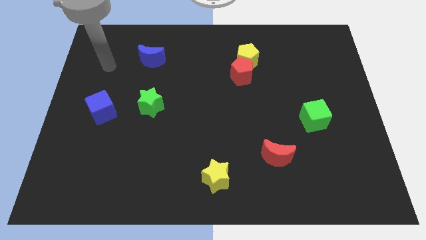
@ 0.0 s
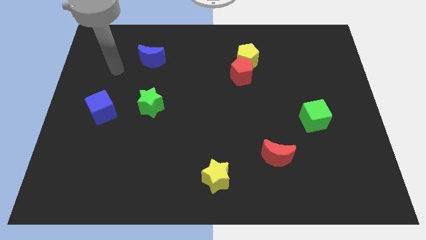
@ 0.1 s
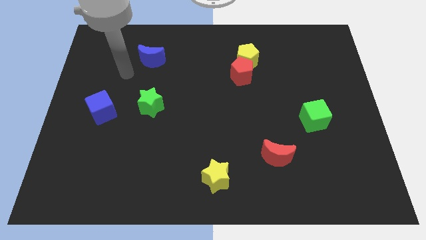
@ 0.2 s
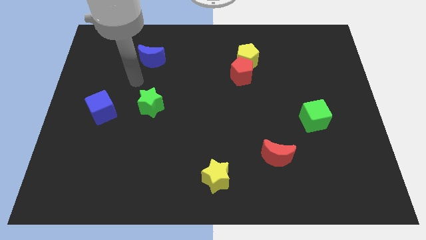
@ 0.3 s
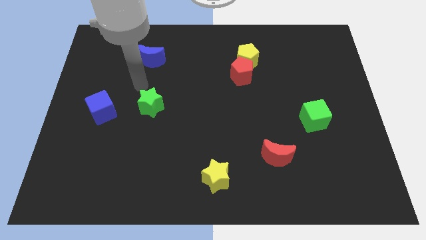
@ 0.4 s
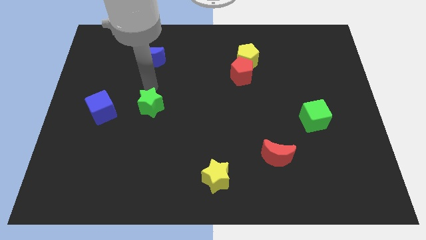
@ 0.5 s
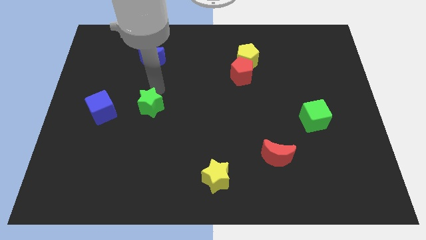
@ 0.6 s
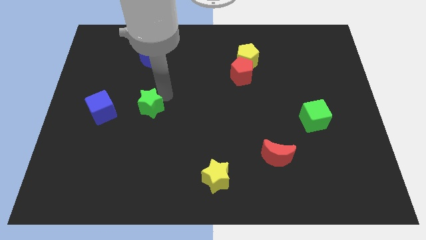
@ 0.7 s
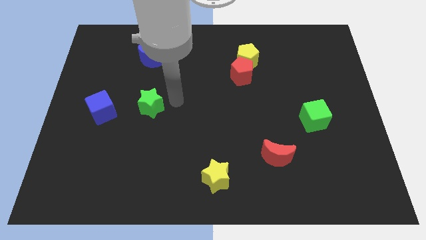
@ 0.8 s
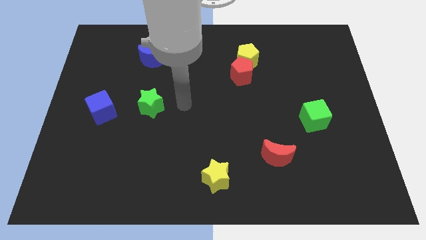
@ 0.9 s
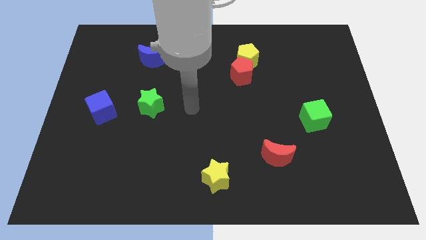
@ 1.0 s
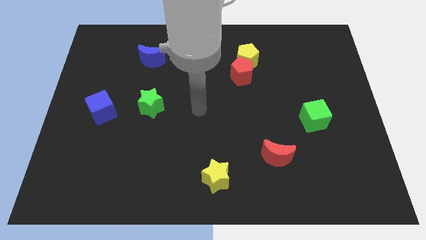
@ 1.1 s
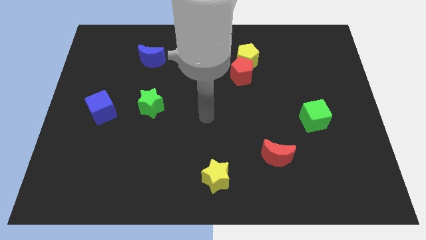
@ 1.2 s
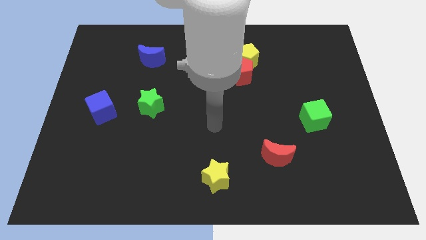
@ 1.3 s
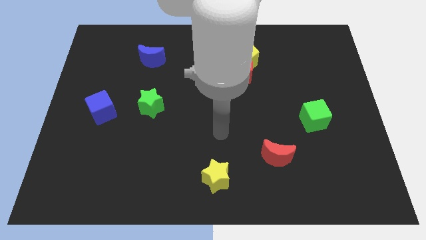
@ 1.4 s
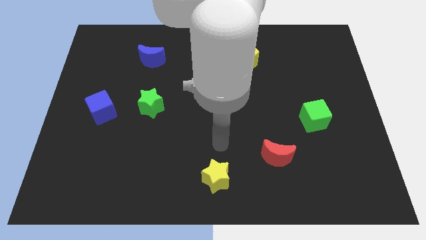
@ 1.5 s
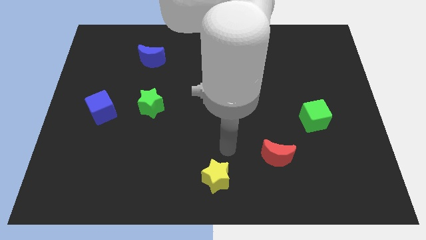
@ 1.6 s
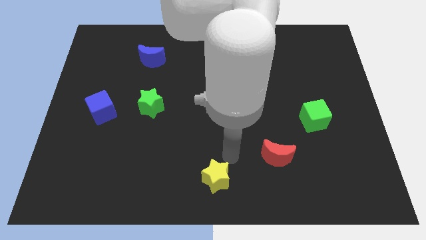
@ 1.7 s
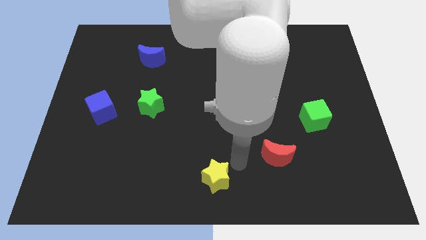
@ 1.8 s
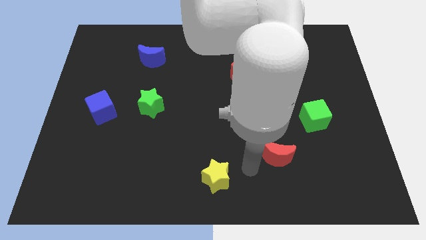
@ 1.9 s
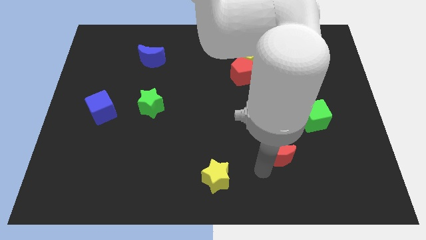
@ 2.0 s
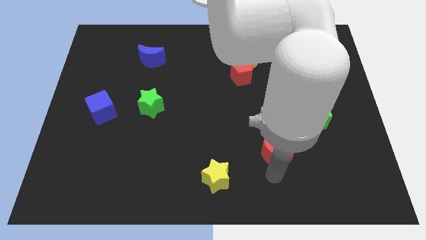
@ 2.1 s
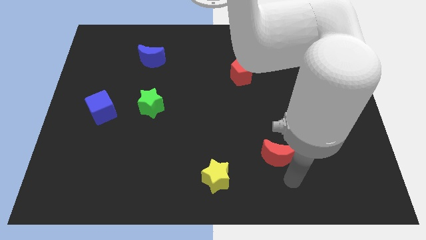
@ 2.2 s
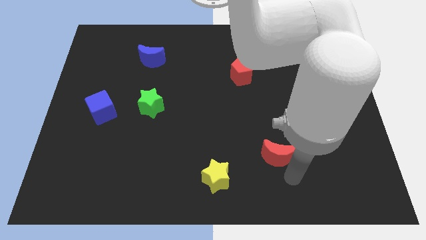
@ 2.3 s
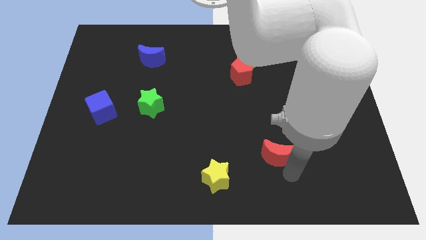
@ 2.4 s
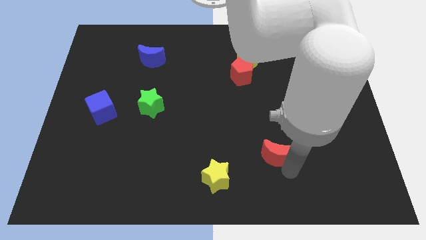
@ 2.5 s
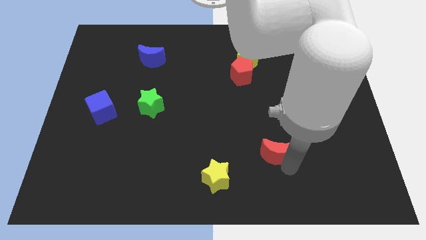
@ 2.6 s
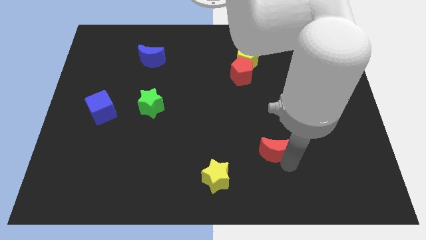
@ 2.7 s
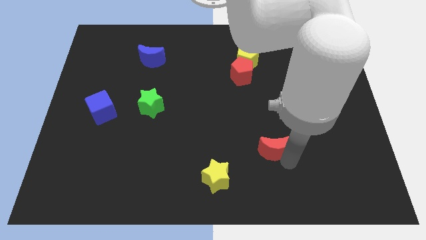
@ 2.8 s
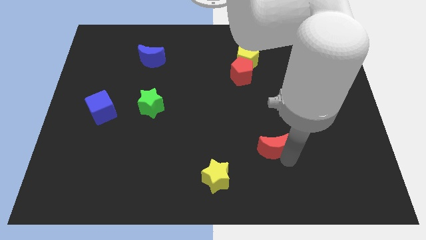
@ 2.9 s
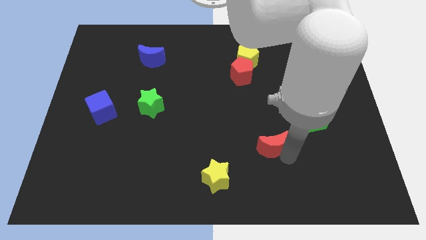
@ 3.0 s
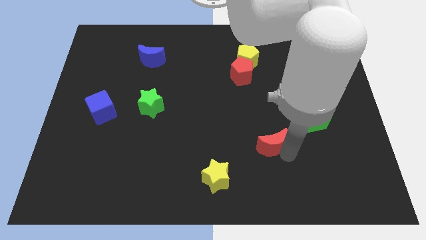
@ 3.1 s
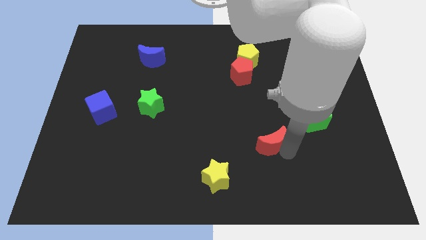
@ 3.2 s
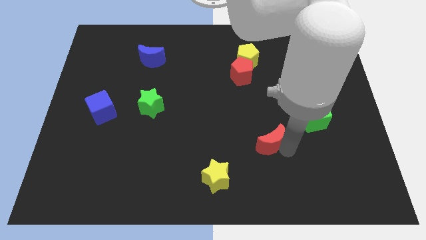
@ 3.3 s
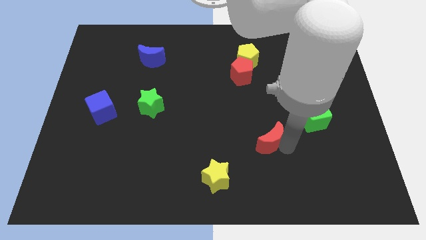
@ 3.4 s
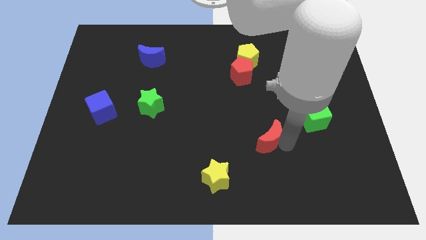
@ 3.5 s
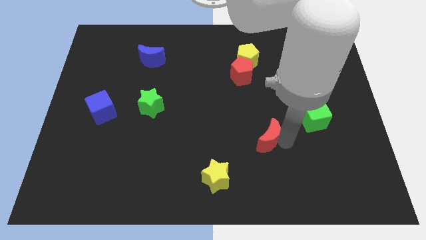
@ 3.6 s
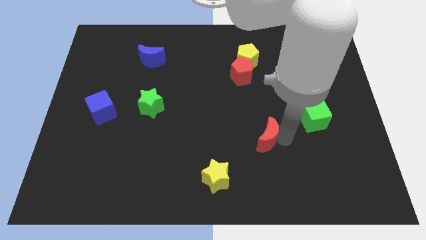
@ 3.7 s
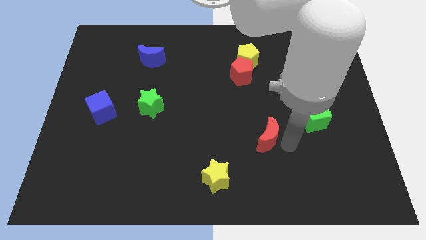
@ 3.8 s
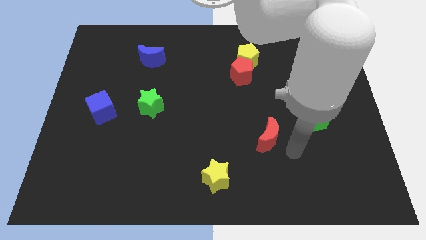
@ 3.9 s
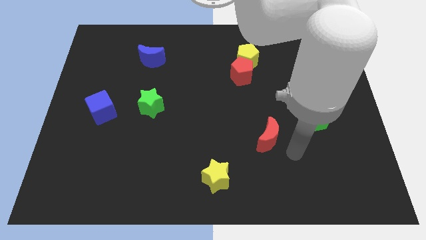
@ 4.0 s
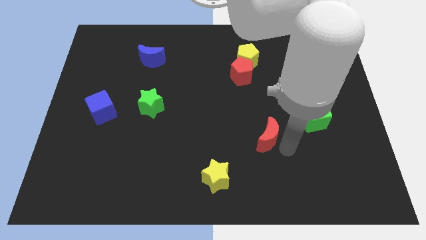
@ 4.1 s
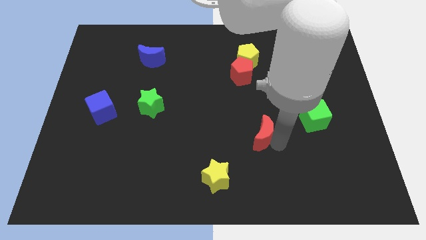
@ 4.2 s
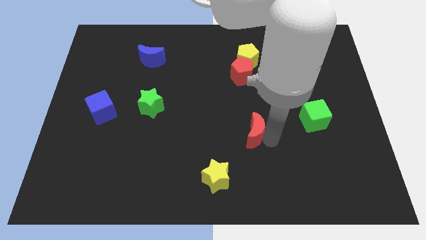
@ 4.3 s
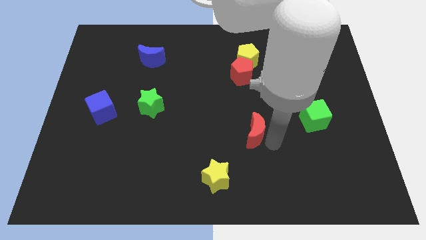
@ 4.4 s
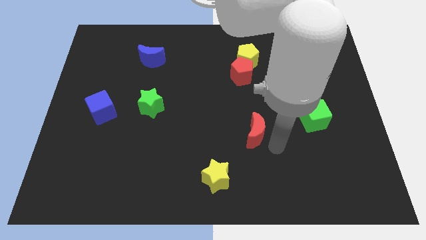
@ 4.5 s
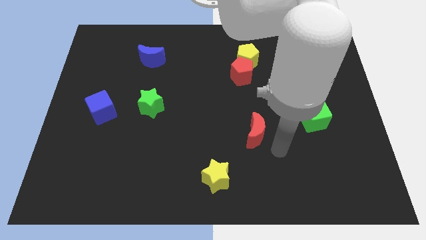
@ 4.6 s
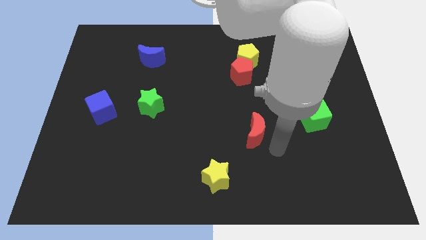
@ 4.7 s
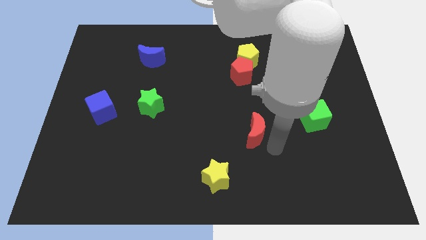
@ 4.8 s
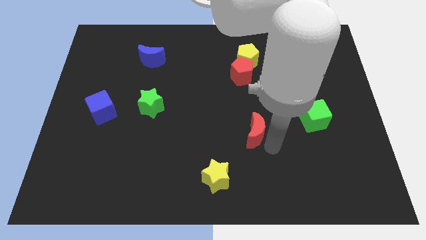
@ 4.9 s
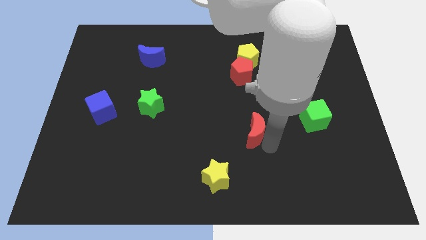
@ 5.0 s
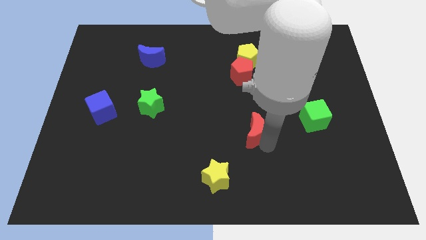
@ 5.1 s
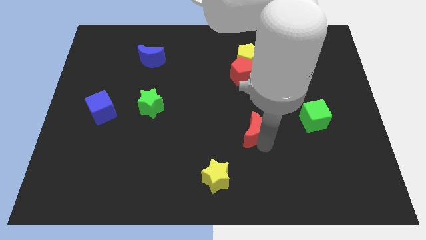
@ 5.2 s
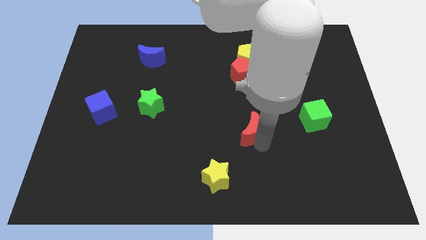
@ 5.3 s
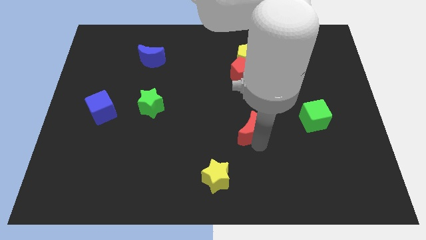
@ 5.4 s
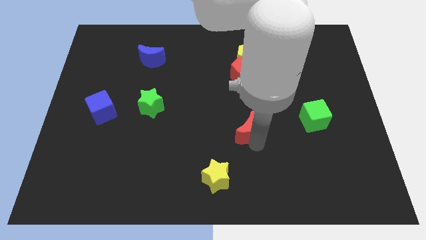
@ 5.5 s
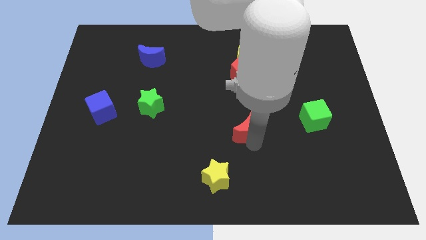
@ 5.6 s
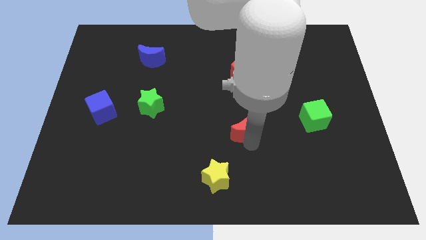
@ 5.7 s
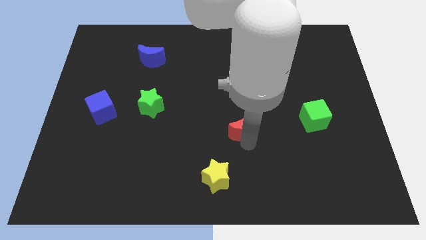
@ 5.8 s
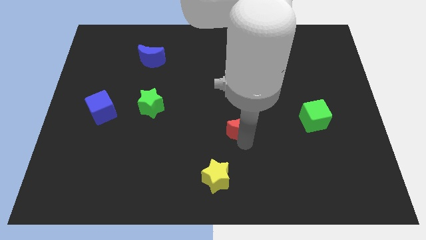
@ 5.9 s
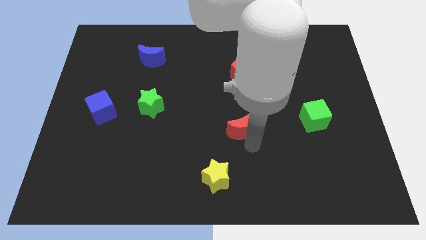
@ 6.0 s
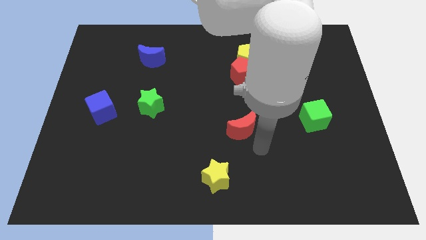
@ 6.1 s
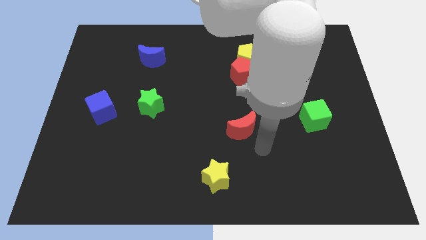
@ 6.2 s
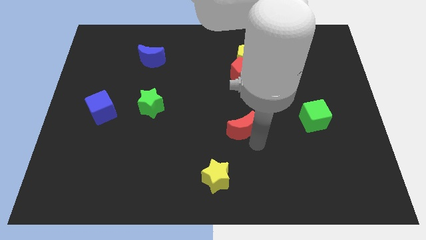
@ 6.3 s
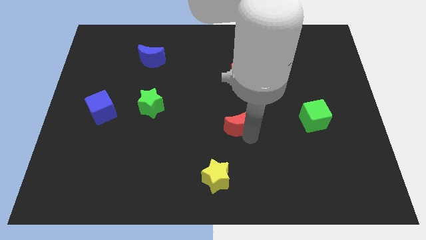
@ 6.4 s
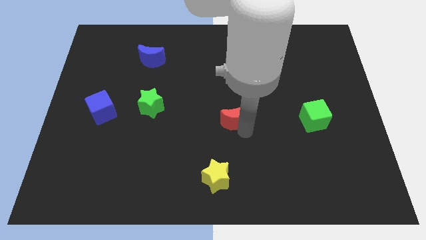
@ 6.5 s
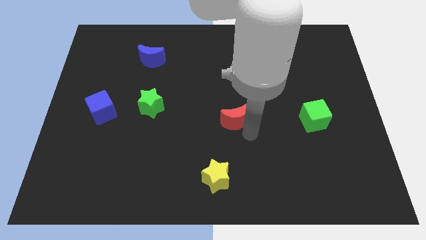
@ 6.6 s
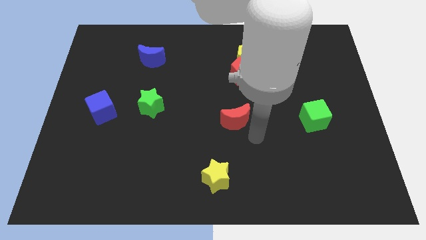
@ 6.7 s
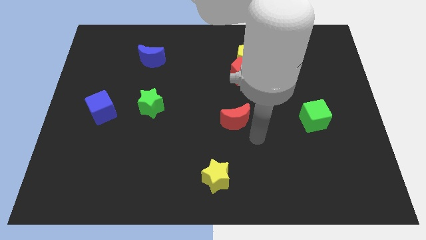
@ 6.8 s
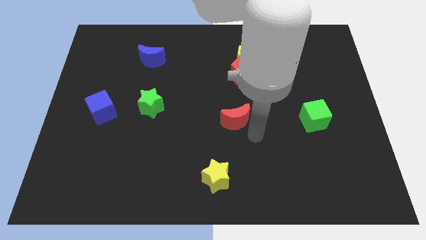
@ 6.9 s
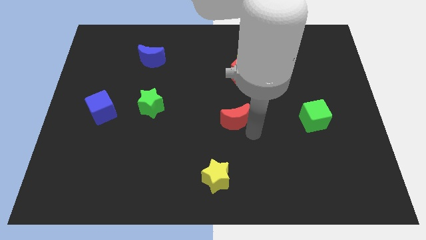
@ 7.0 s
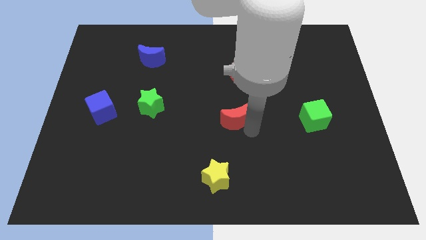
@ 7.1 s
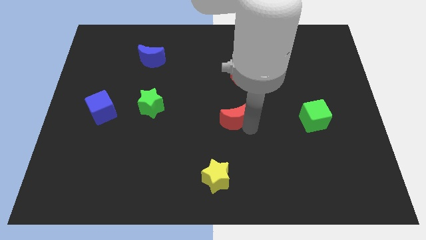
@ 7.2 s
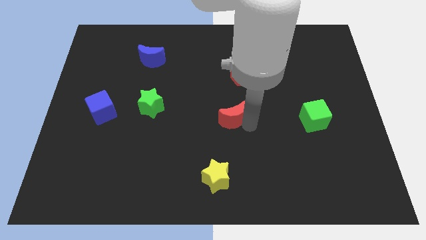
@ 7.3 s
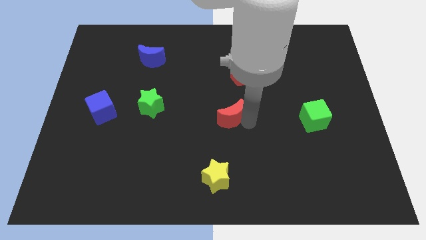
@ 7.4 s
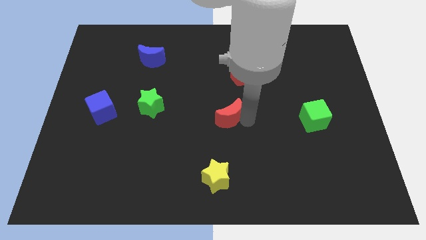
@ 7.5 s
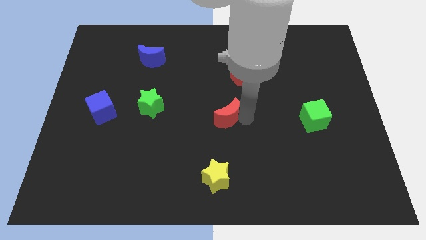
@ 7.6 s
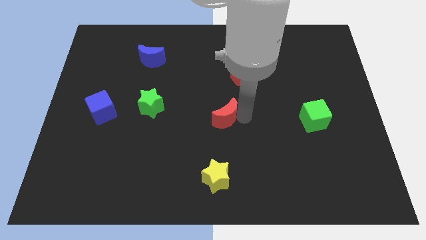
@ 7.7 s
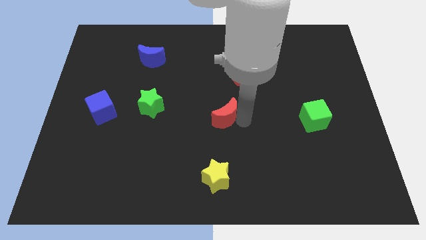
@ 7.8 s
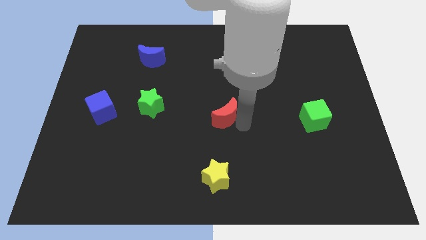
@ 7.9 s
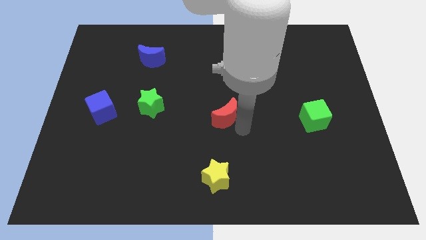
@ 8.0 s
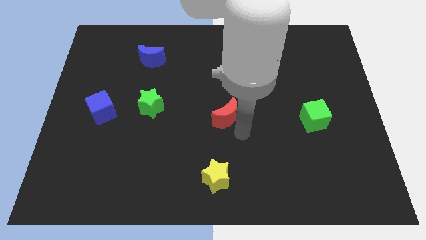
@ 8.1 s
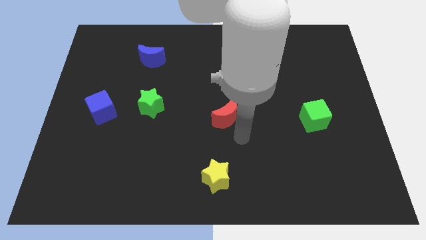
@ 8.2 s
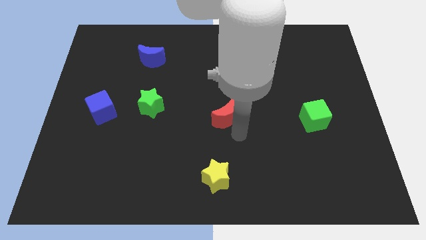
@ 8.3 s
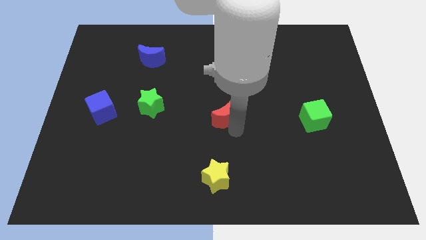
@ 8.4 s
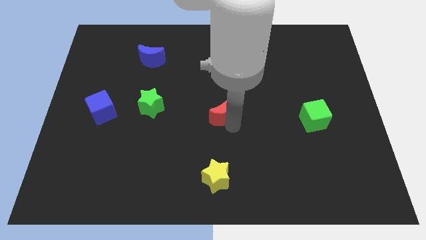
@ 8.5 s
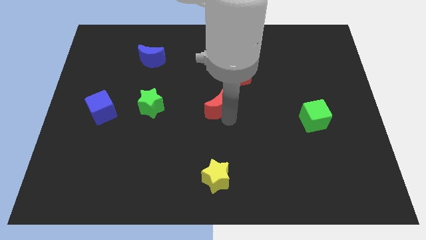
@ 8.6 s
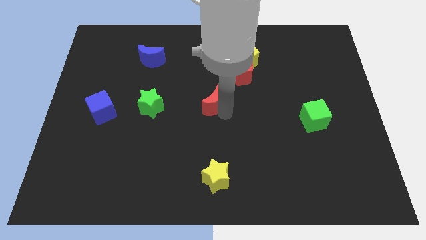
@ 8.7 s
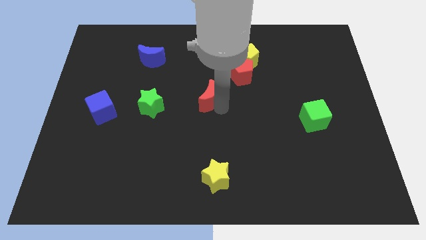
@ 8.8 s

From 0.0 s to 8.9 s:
move the red moon up and then to the left
